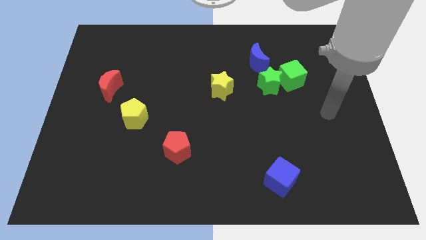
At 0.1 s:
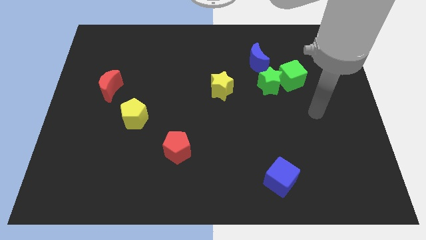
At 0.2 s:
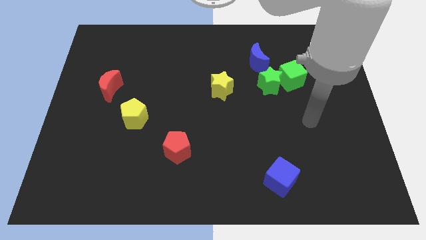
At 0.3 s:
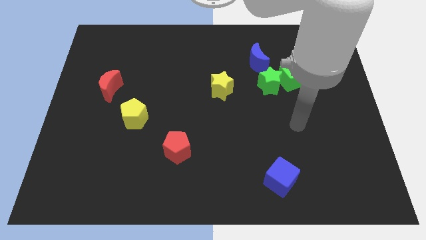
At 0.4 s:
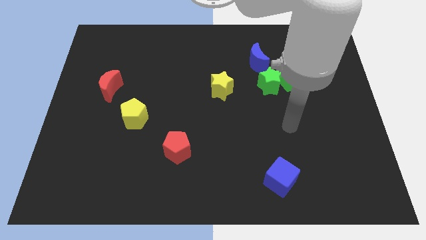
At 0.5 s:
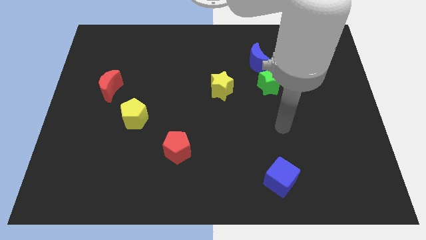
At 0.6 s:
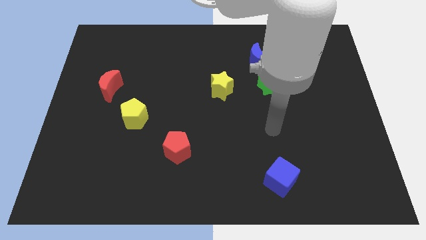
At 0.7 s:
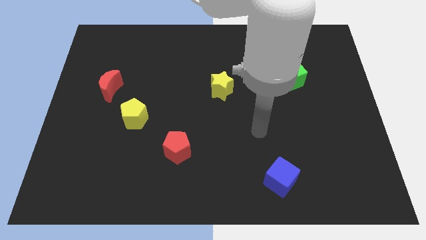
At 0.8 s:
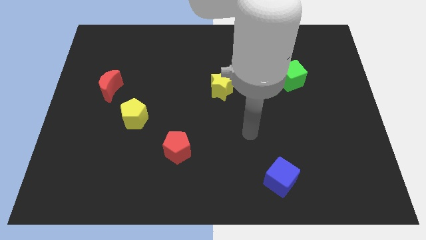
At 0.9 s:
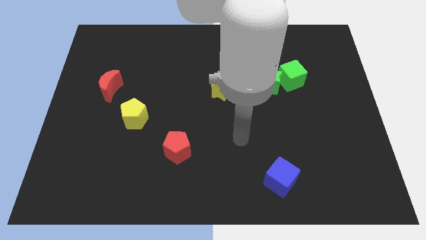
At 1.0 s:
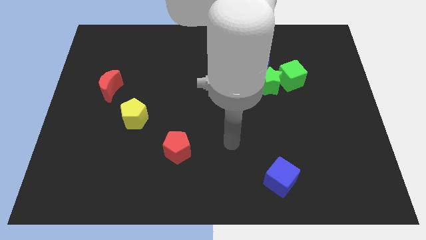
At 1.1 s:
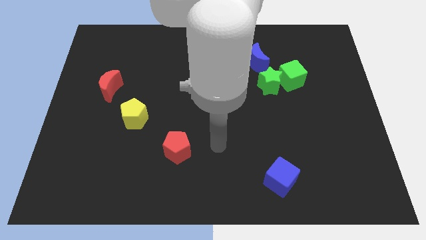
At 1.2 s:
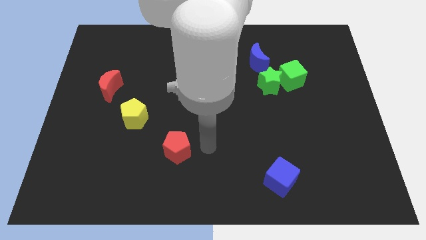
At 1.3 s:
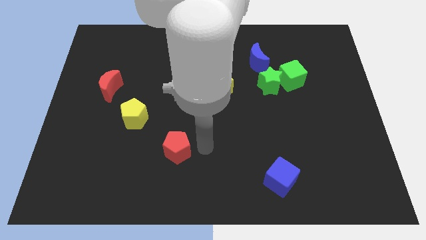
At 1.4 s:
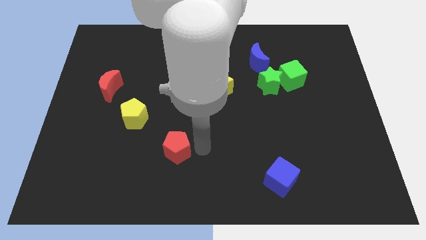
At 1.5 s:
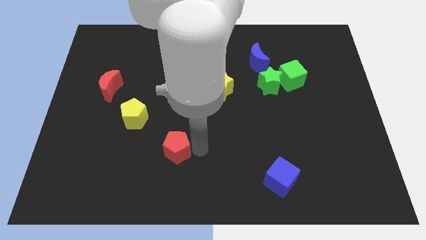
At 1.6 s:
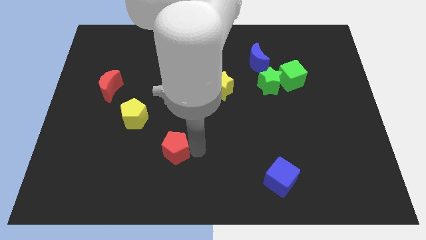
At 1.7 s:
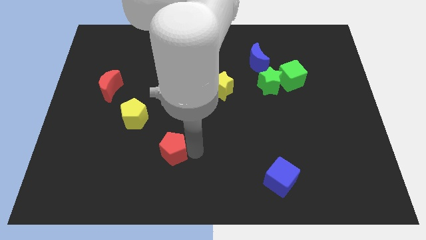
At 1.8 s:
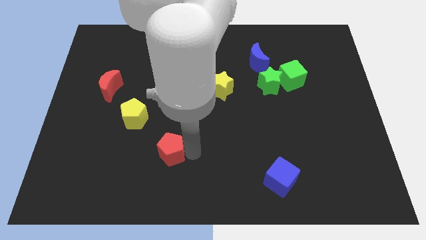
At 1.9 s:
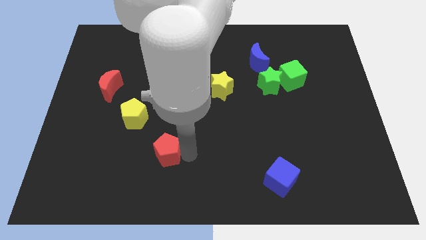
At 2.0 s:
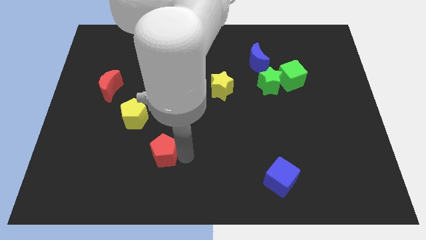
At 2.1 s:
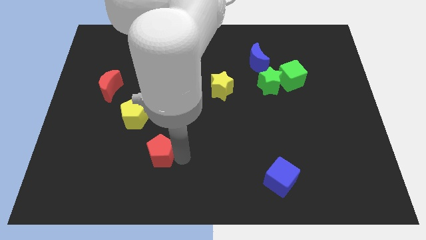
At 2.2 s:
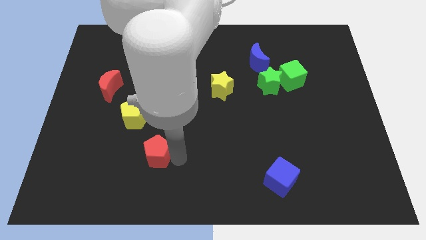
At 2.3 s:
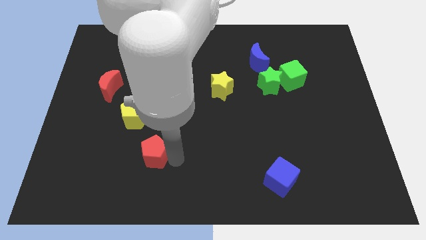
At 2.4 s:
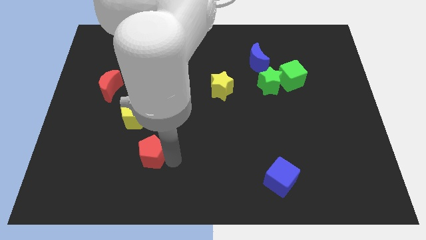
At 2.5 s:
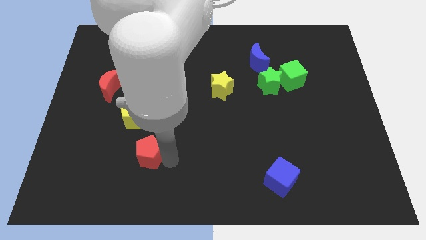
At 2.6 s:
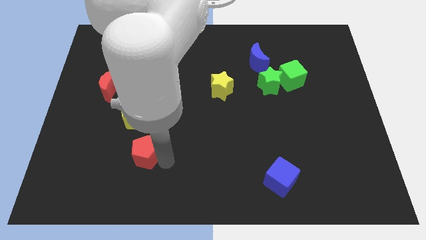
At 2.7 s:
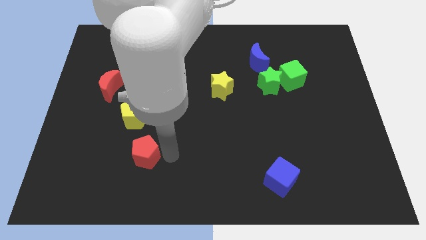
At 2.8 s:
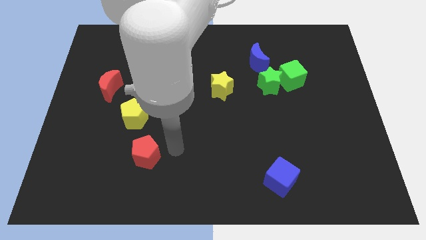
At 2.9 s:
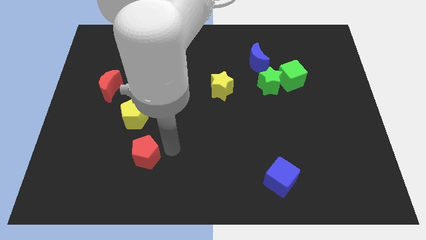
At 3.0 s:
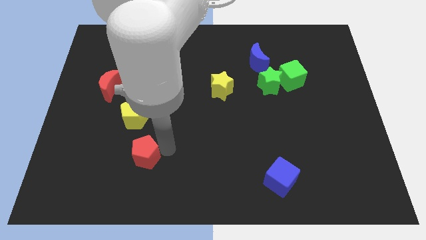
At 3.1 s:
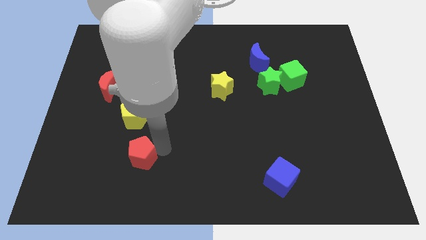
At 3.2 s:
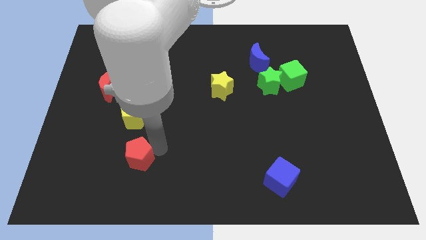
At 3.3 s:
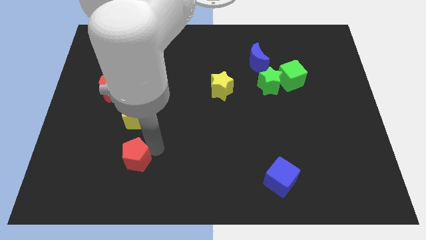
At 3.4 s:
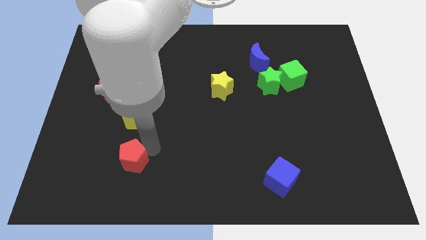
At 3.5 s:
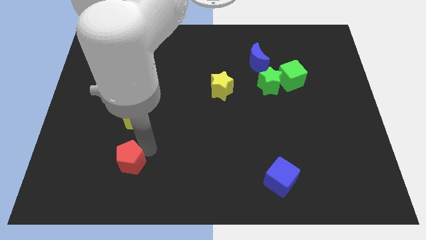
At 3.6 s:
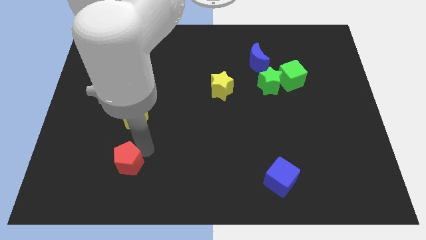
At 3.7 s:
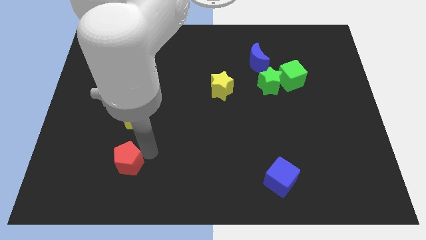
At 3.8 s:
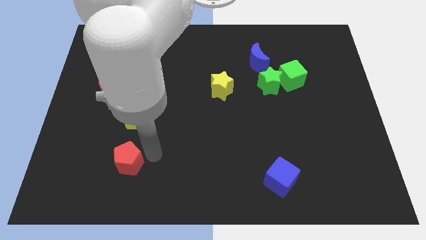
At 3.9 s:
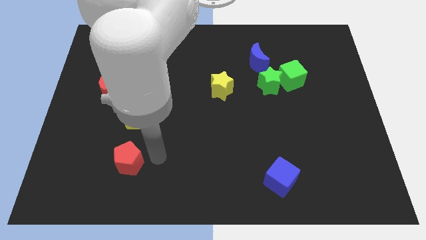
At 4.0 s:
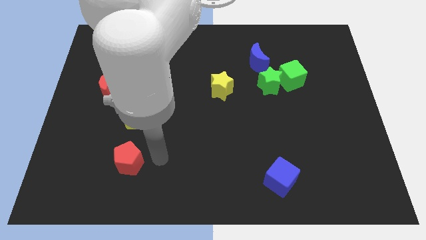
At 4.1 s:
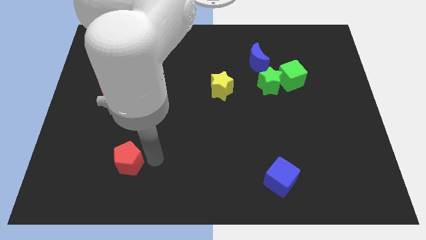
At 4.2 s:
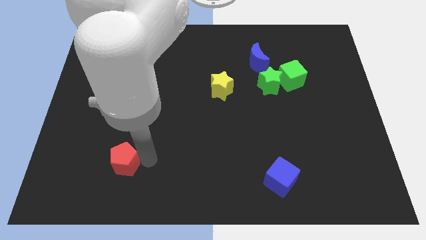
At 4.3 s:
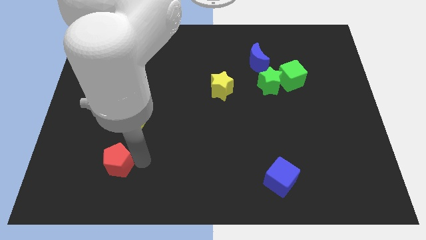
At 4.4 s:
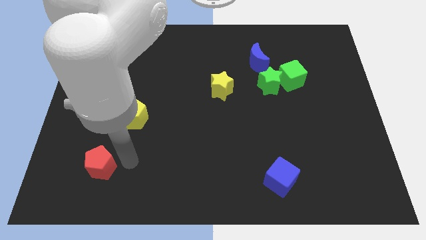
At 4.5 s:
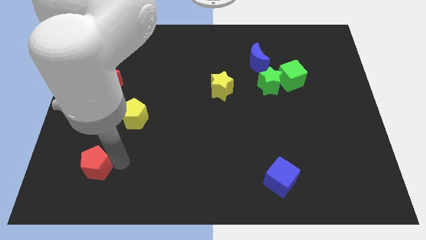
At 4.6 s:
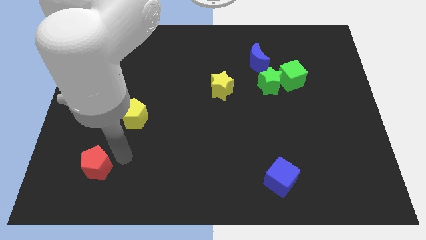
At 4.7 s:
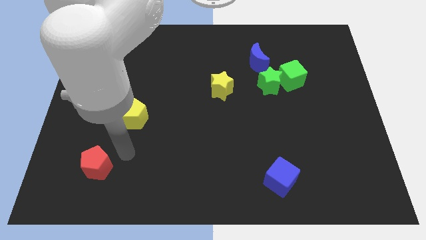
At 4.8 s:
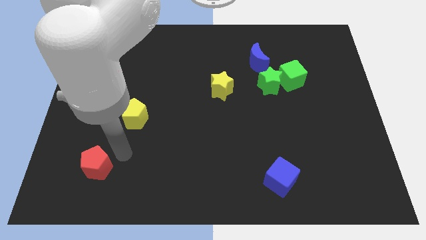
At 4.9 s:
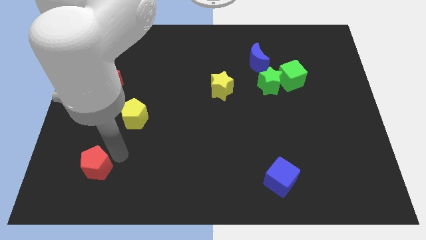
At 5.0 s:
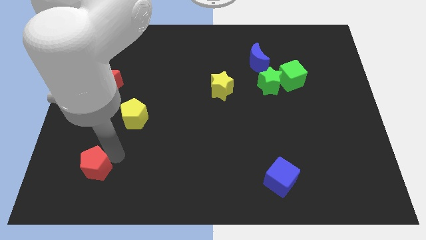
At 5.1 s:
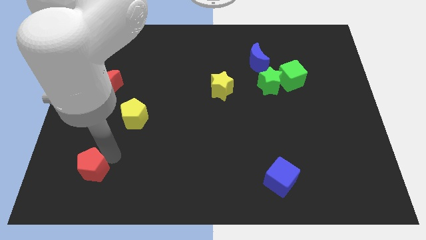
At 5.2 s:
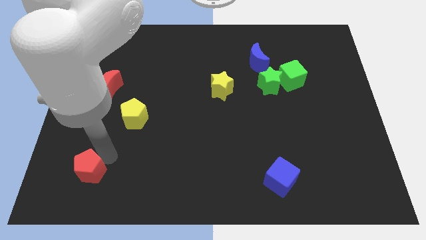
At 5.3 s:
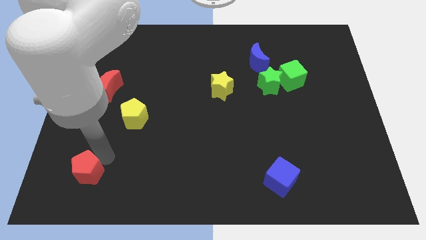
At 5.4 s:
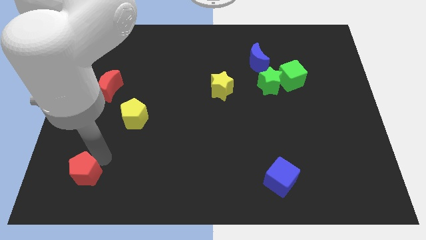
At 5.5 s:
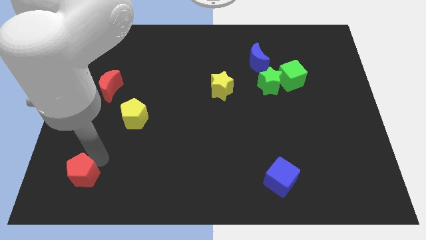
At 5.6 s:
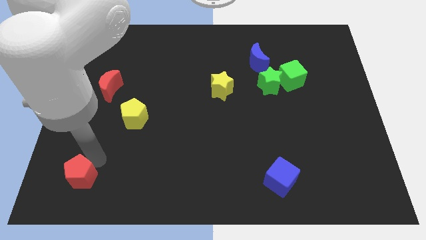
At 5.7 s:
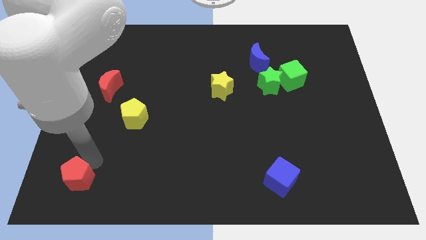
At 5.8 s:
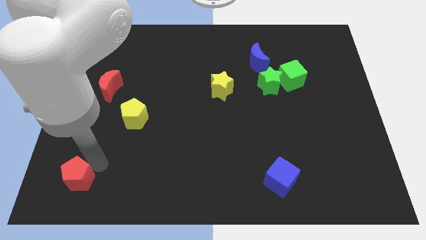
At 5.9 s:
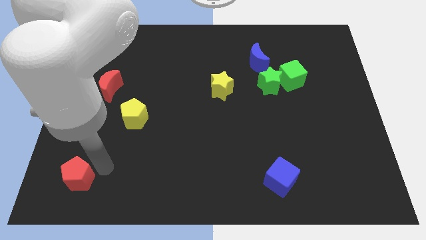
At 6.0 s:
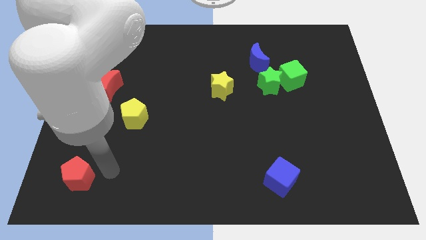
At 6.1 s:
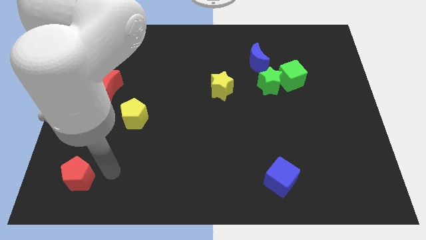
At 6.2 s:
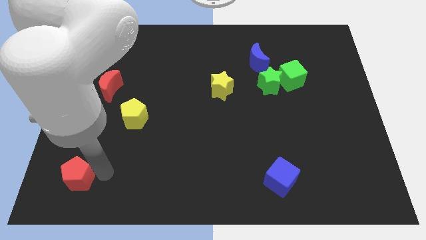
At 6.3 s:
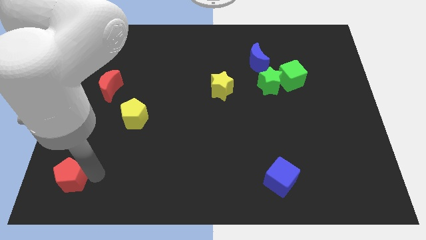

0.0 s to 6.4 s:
move the red pentagon to the bottom left of the board

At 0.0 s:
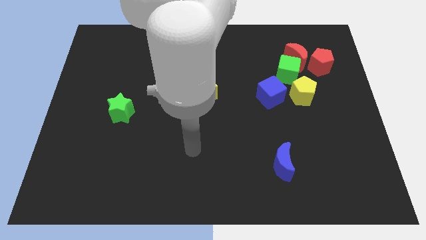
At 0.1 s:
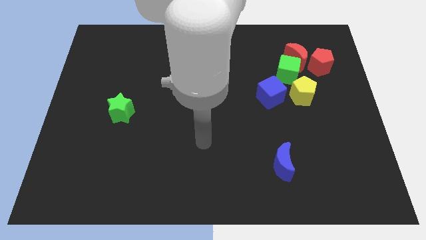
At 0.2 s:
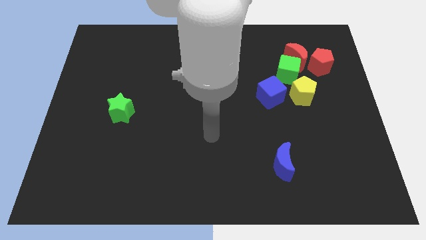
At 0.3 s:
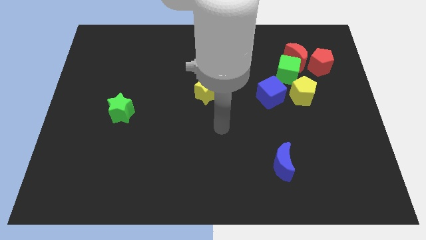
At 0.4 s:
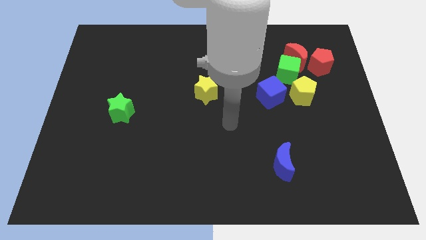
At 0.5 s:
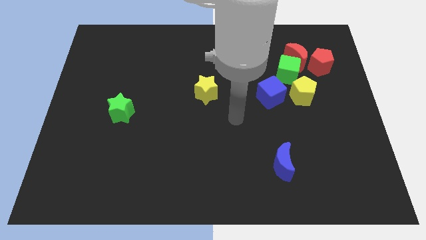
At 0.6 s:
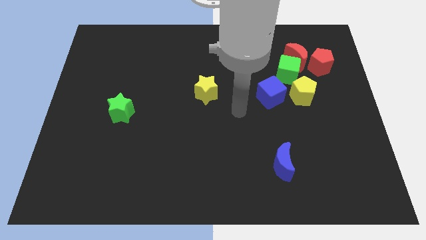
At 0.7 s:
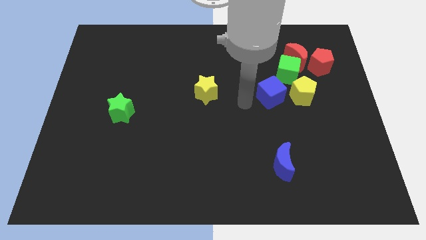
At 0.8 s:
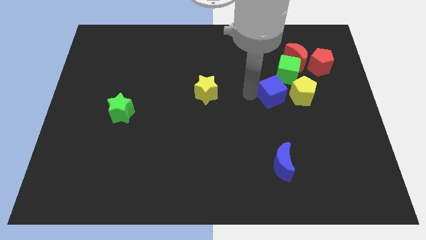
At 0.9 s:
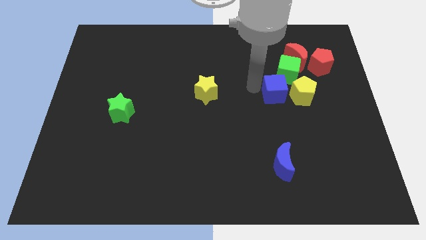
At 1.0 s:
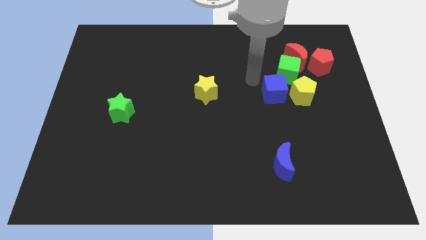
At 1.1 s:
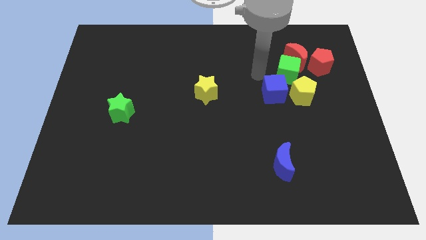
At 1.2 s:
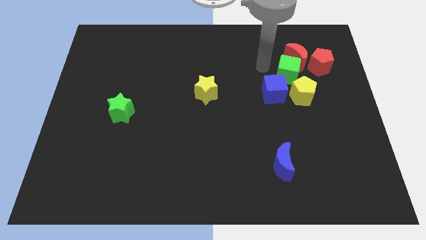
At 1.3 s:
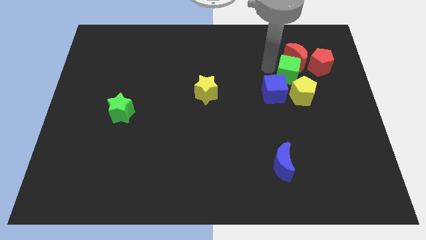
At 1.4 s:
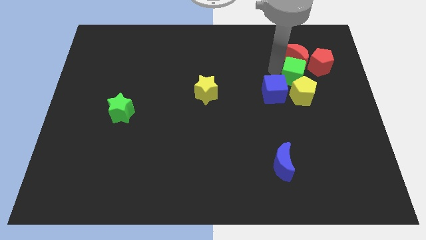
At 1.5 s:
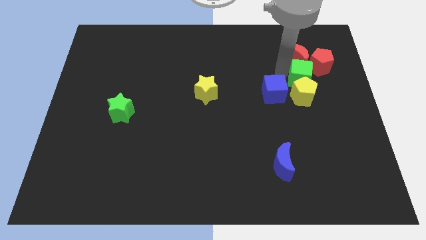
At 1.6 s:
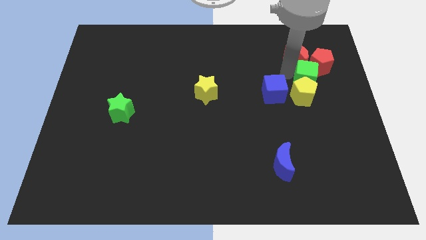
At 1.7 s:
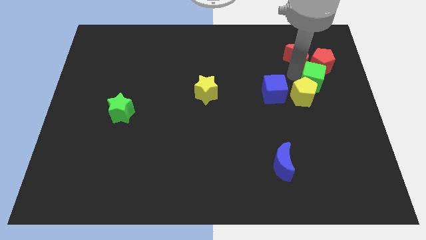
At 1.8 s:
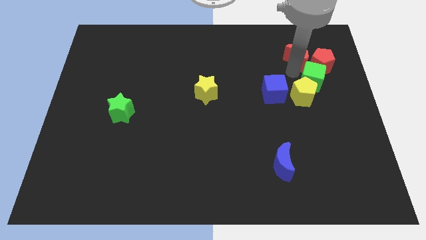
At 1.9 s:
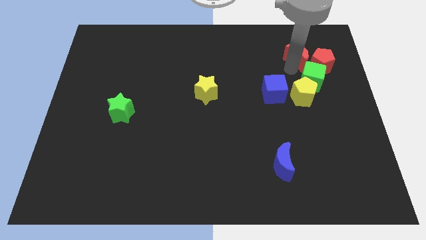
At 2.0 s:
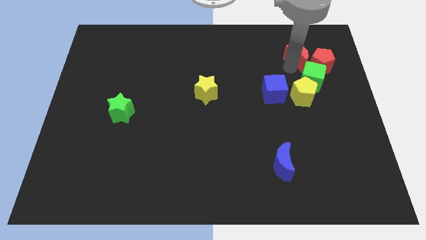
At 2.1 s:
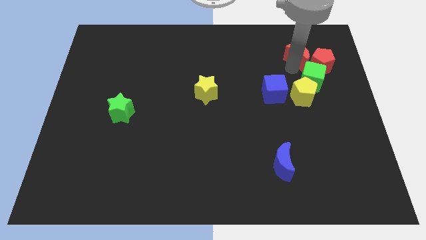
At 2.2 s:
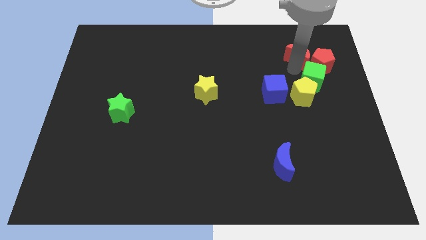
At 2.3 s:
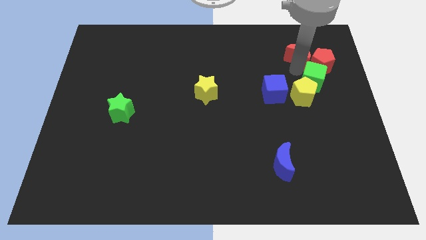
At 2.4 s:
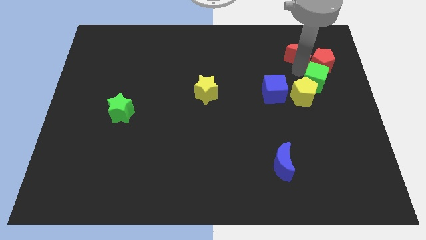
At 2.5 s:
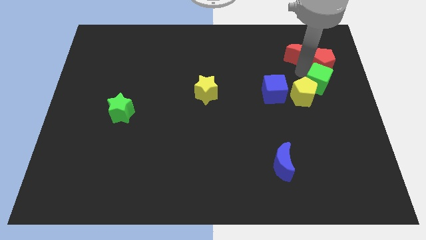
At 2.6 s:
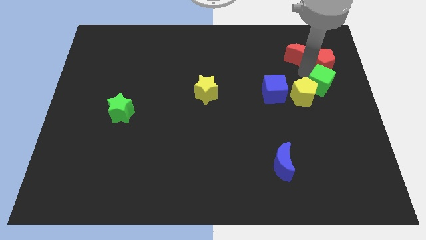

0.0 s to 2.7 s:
push the green cube to the right side
